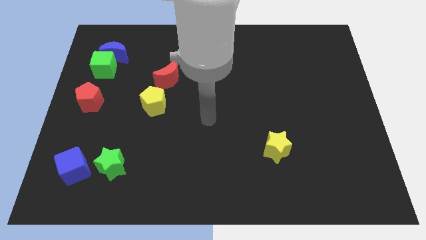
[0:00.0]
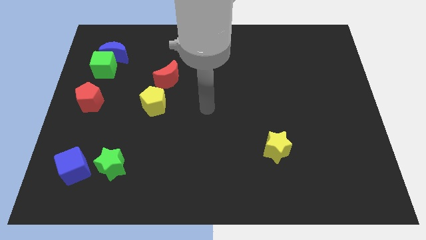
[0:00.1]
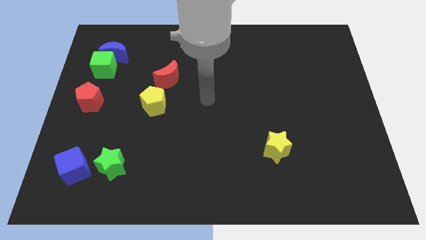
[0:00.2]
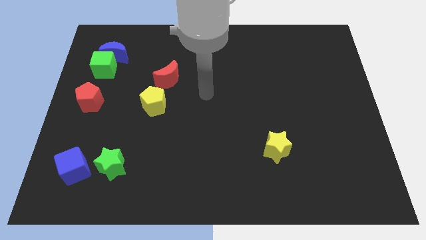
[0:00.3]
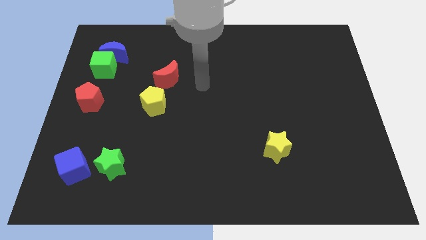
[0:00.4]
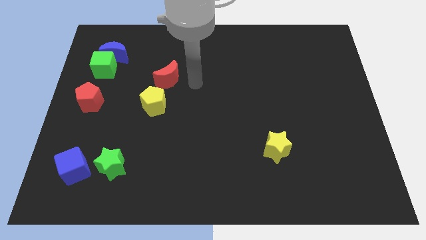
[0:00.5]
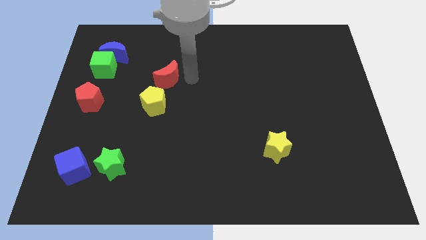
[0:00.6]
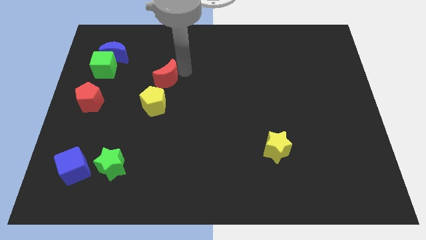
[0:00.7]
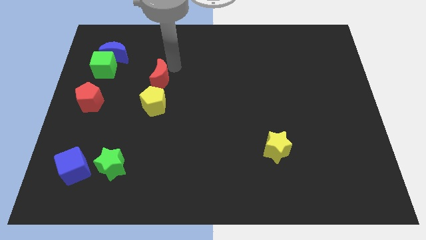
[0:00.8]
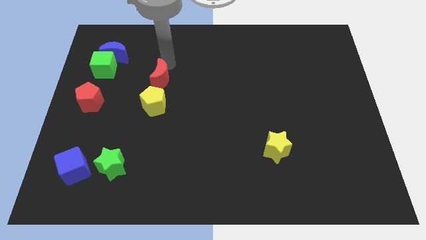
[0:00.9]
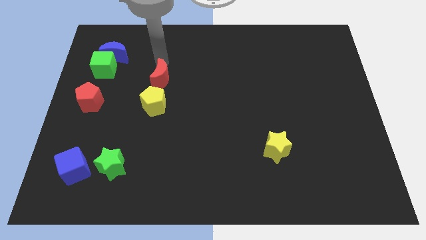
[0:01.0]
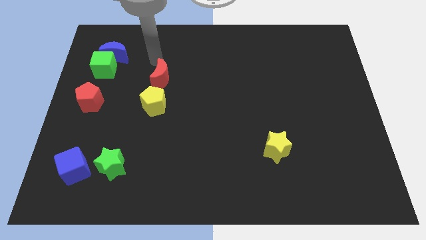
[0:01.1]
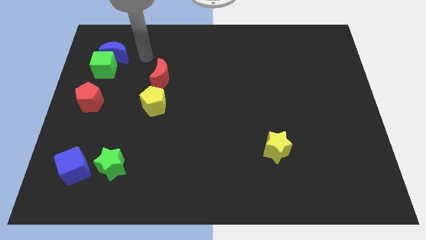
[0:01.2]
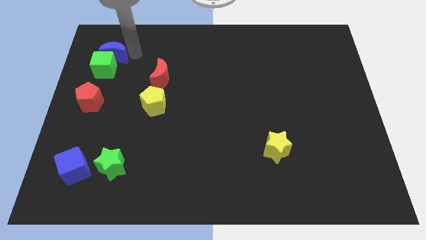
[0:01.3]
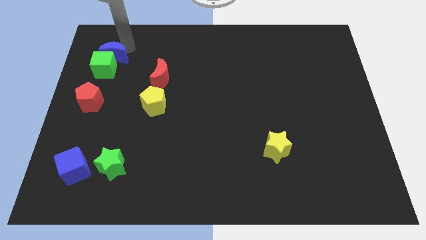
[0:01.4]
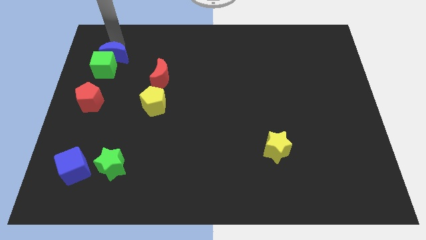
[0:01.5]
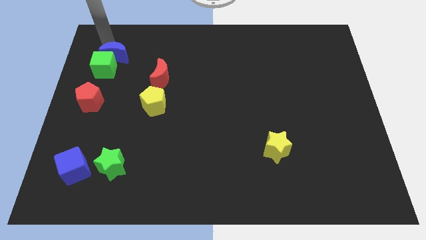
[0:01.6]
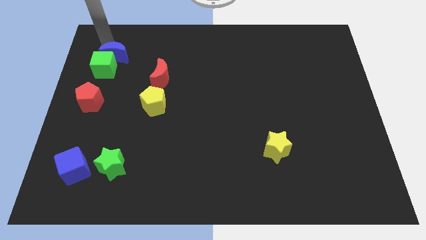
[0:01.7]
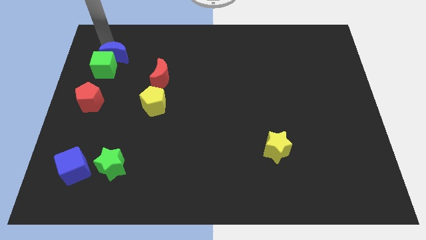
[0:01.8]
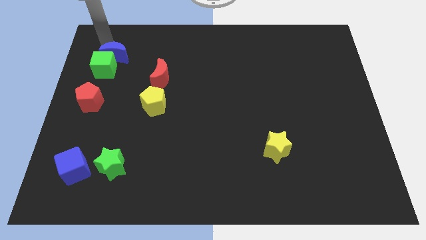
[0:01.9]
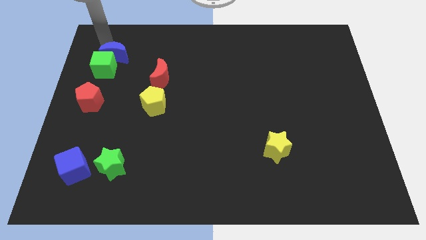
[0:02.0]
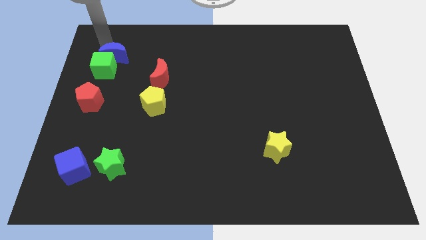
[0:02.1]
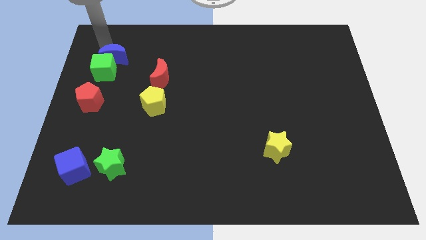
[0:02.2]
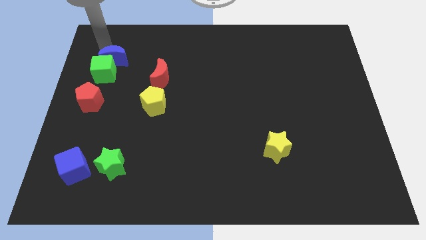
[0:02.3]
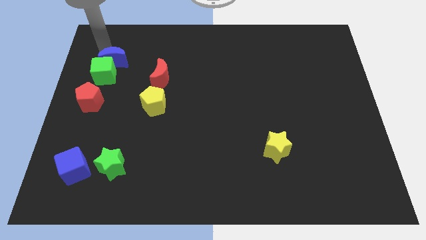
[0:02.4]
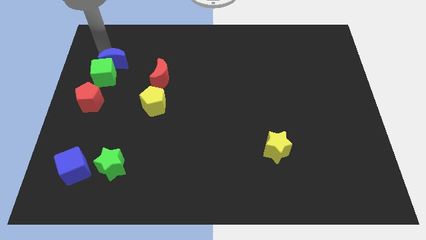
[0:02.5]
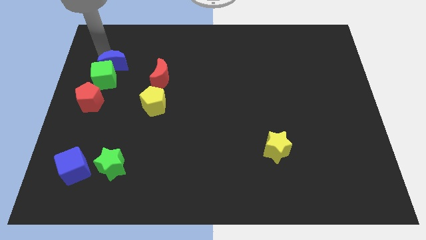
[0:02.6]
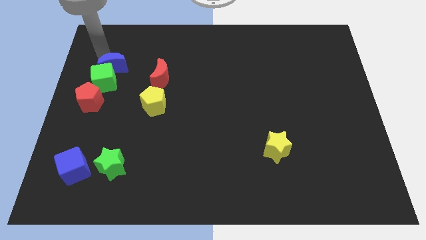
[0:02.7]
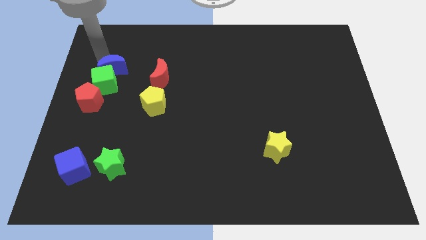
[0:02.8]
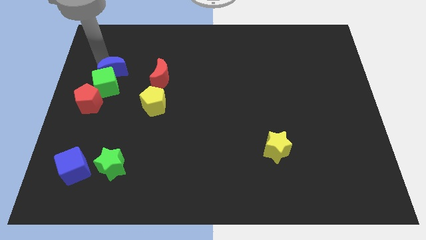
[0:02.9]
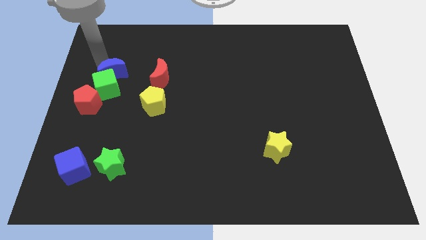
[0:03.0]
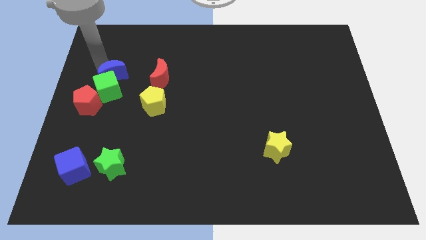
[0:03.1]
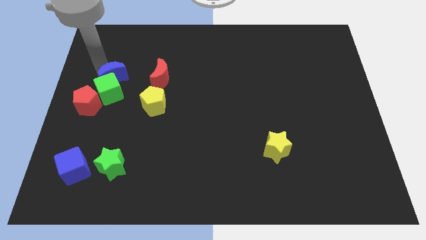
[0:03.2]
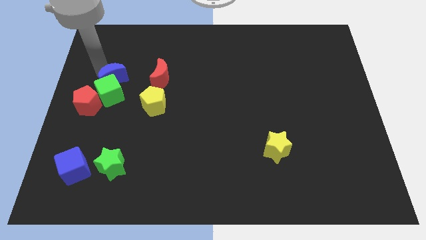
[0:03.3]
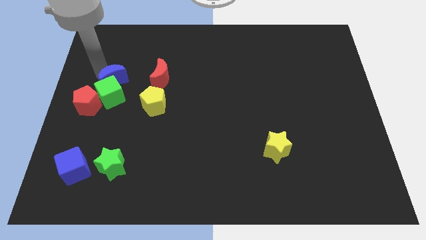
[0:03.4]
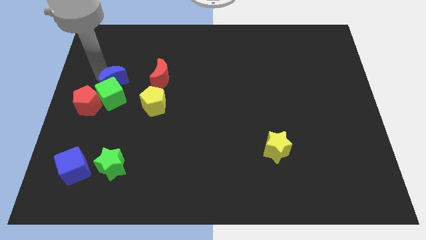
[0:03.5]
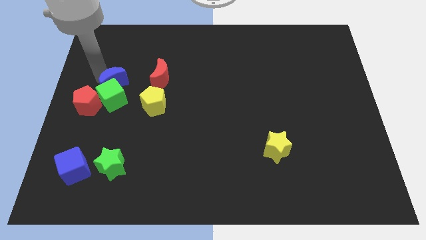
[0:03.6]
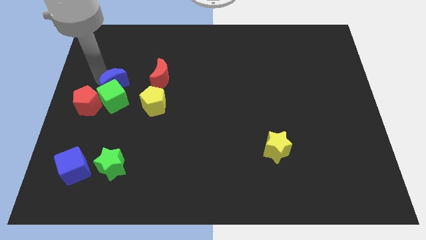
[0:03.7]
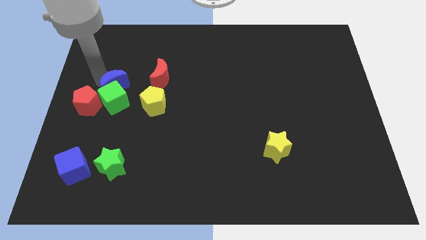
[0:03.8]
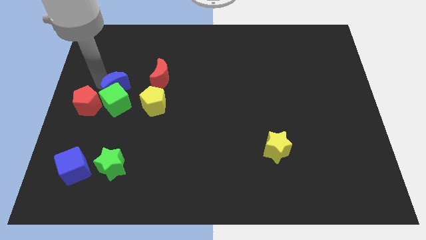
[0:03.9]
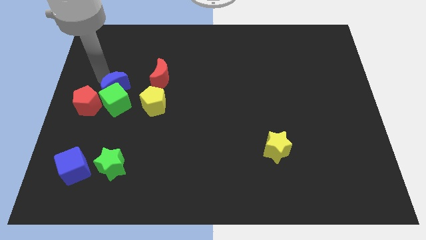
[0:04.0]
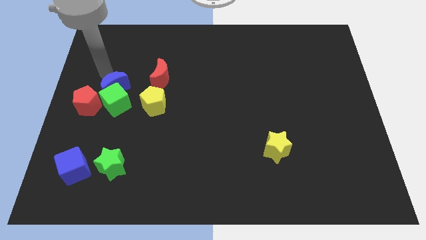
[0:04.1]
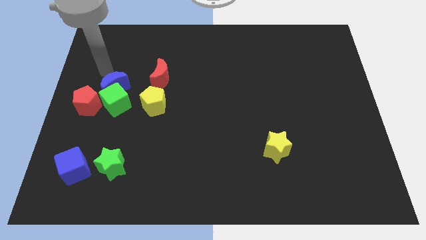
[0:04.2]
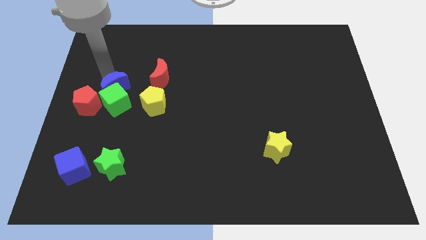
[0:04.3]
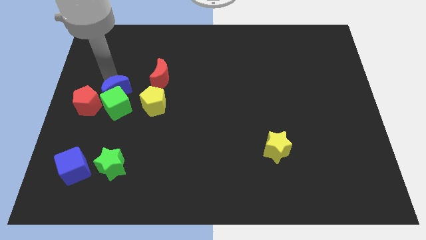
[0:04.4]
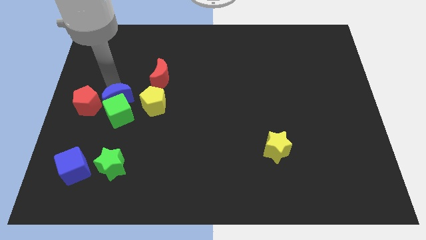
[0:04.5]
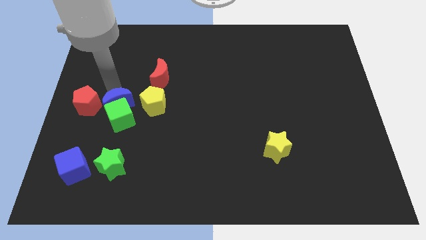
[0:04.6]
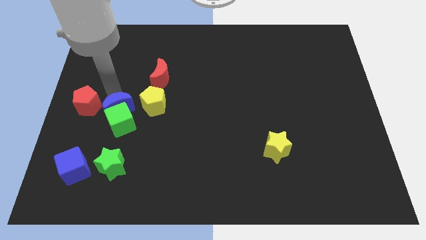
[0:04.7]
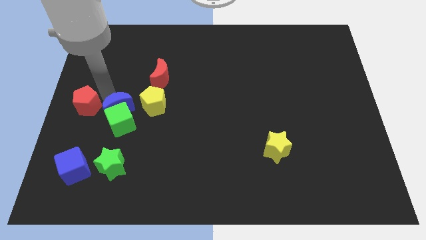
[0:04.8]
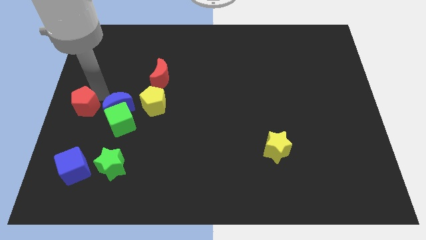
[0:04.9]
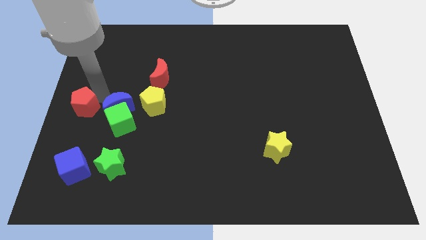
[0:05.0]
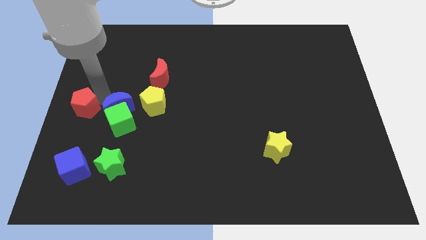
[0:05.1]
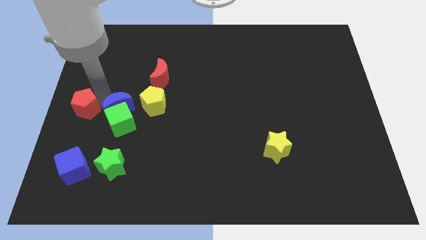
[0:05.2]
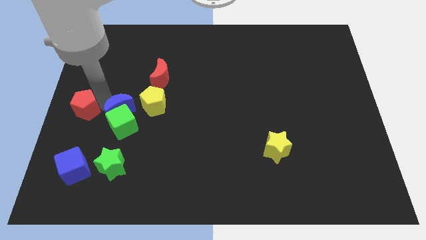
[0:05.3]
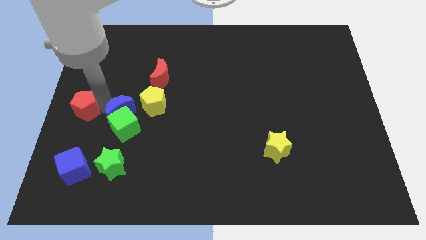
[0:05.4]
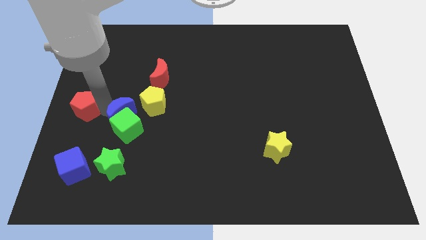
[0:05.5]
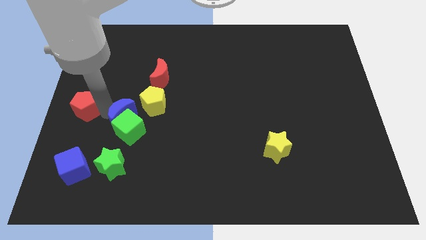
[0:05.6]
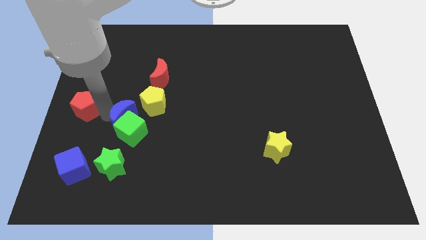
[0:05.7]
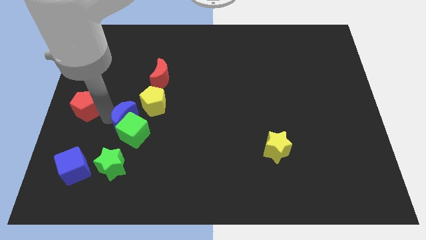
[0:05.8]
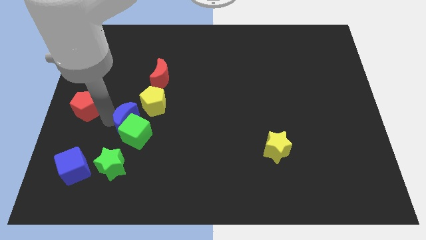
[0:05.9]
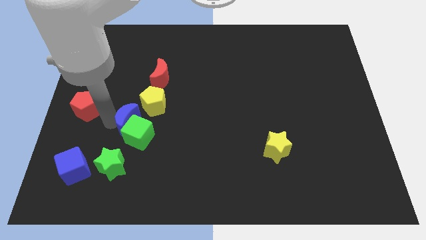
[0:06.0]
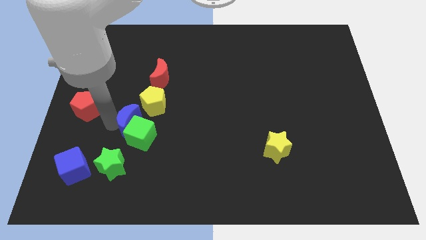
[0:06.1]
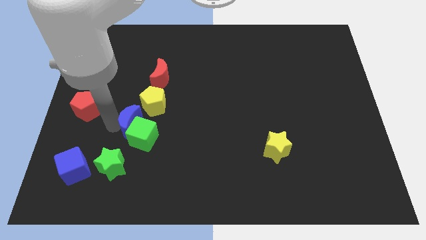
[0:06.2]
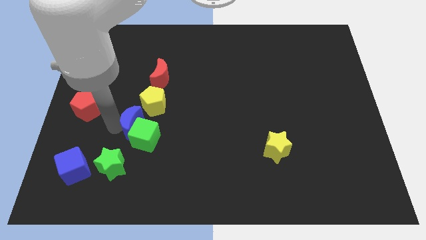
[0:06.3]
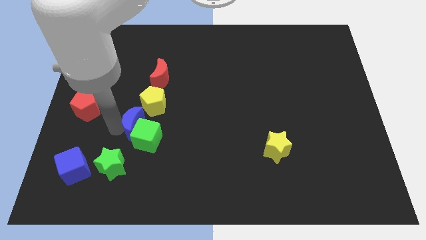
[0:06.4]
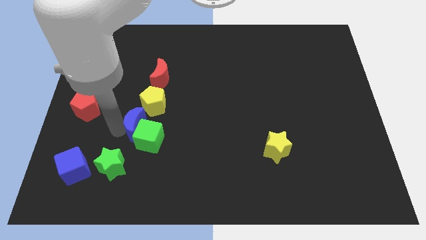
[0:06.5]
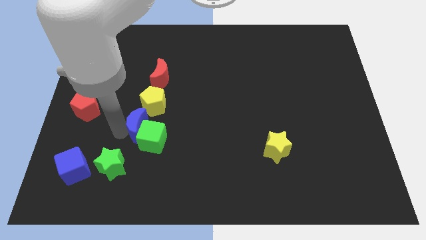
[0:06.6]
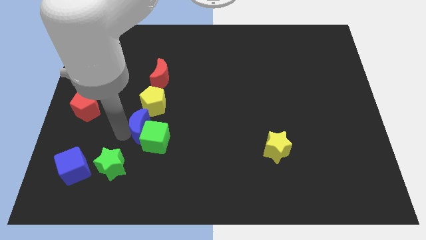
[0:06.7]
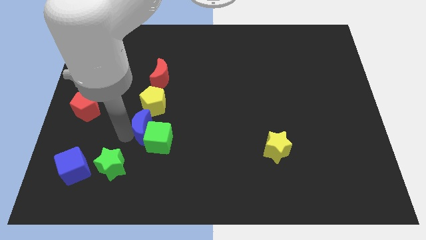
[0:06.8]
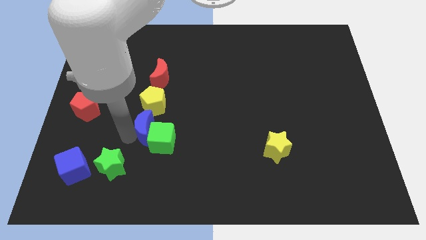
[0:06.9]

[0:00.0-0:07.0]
slide the blue moon down and then right

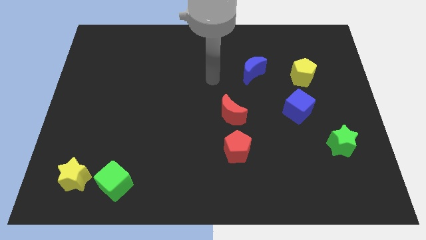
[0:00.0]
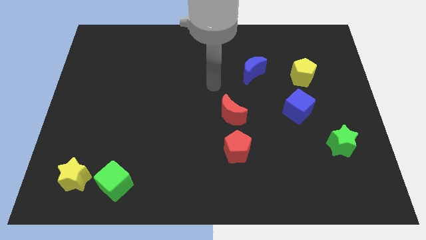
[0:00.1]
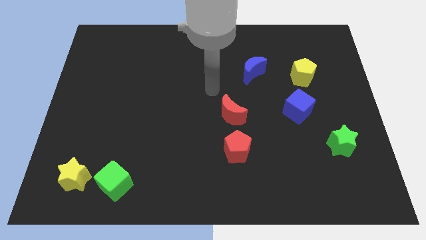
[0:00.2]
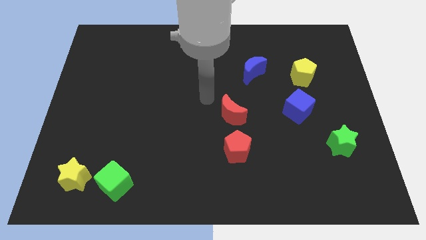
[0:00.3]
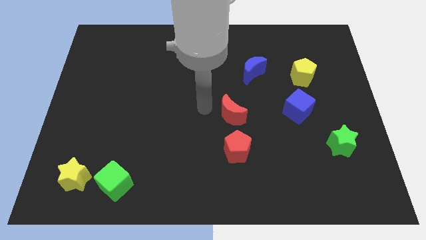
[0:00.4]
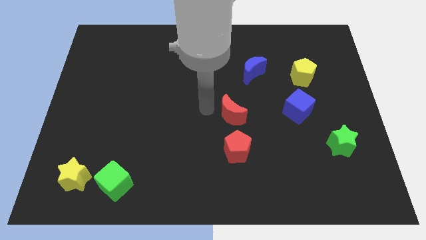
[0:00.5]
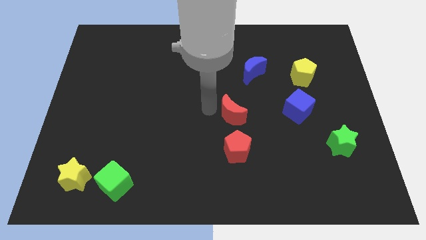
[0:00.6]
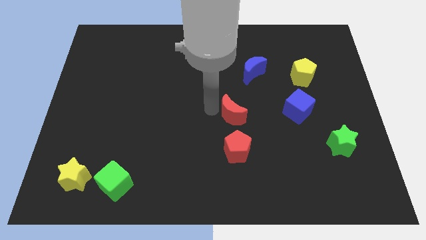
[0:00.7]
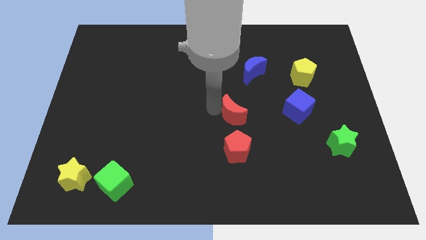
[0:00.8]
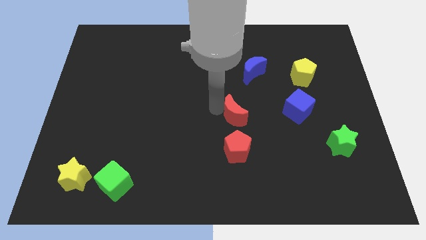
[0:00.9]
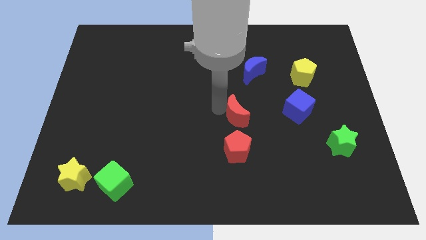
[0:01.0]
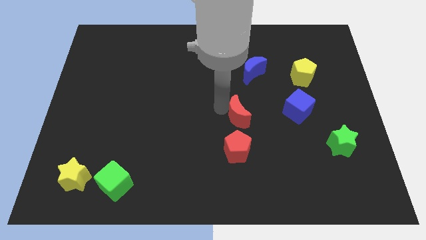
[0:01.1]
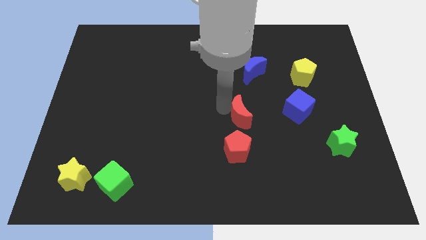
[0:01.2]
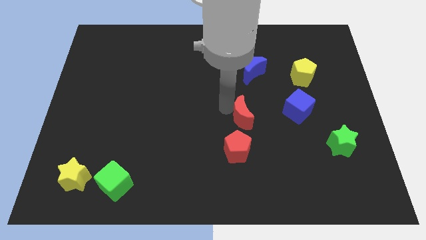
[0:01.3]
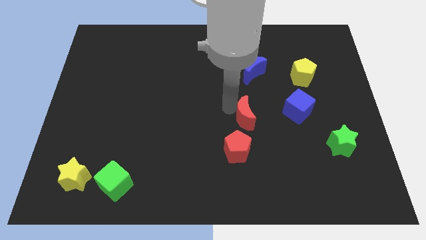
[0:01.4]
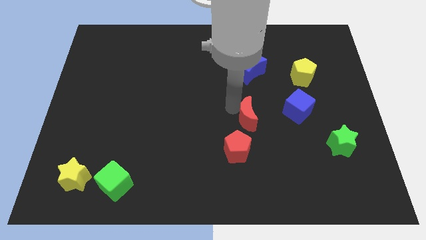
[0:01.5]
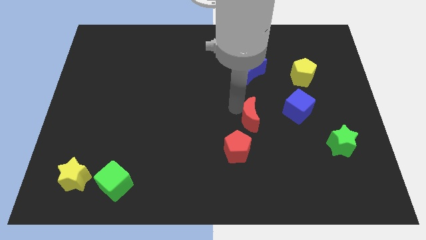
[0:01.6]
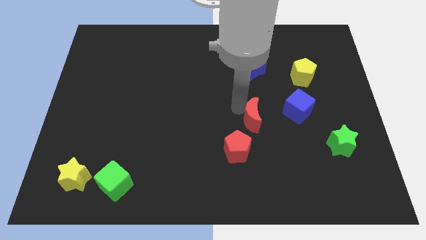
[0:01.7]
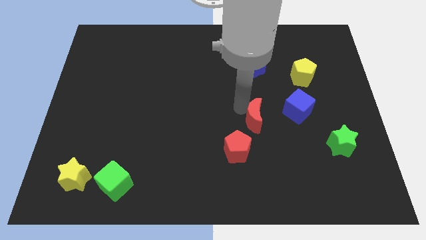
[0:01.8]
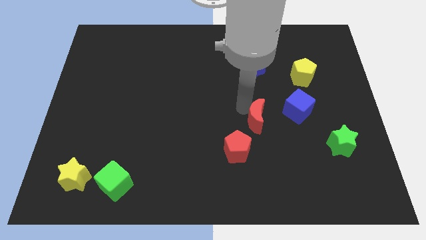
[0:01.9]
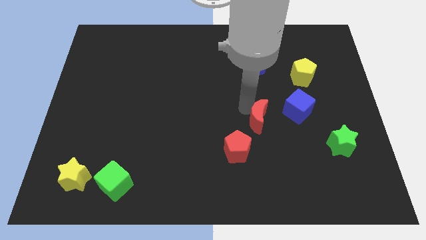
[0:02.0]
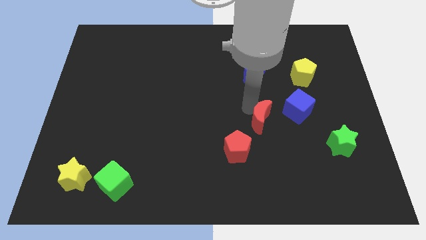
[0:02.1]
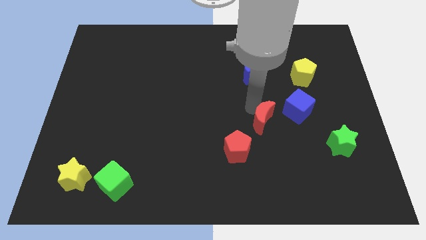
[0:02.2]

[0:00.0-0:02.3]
push the red moon right slightly
